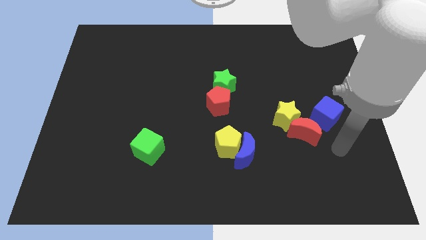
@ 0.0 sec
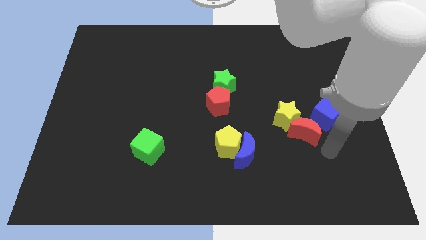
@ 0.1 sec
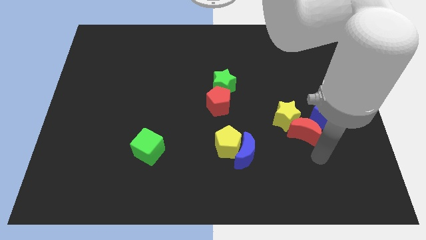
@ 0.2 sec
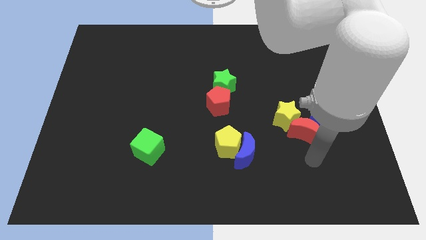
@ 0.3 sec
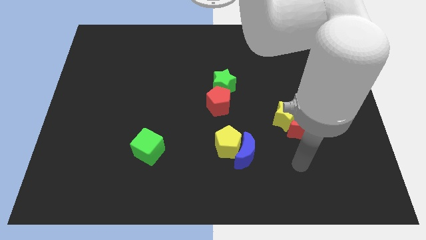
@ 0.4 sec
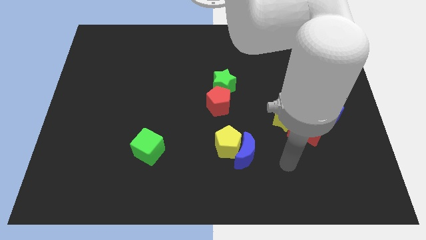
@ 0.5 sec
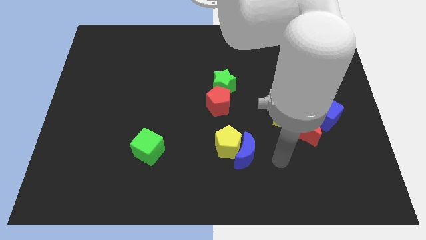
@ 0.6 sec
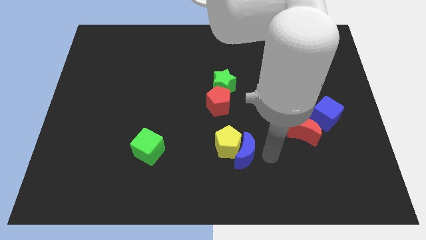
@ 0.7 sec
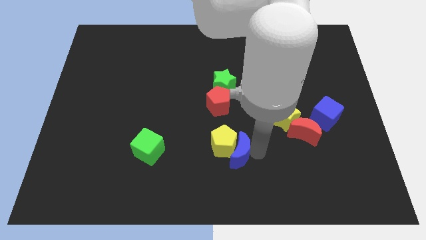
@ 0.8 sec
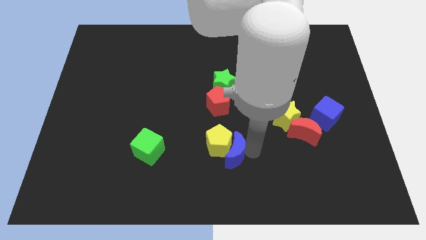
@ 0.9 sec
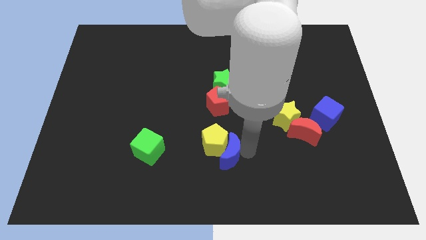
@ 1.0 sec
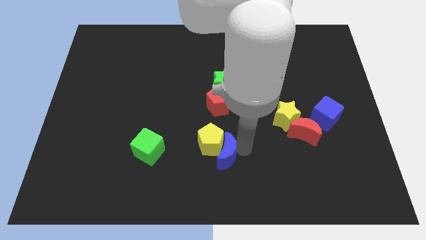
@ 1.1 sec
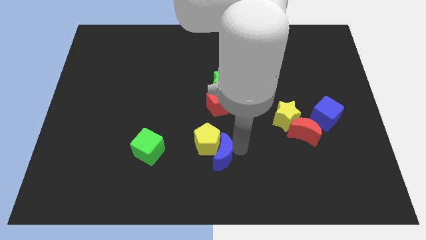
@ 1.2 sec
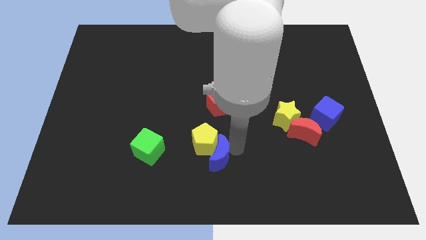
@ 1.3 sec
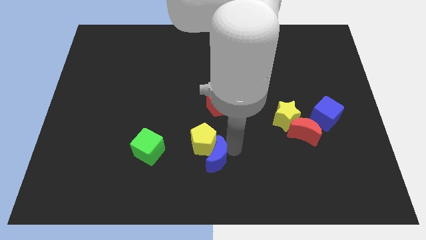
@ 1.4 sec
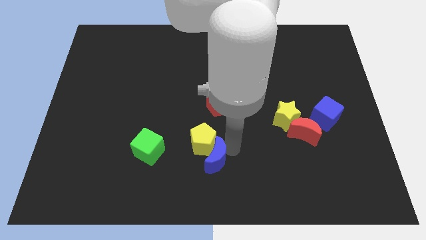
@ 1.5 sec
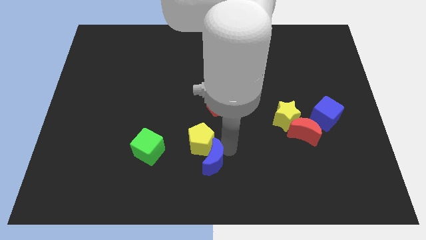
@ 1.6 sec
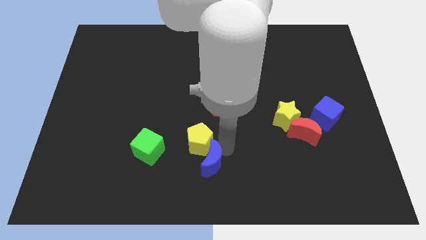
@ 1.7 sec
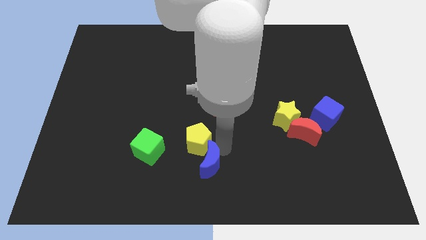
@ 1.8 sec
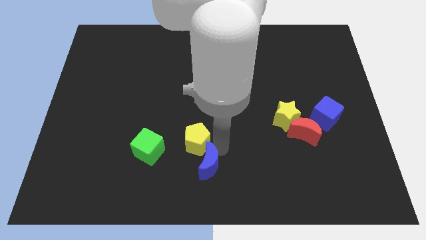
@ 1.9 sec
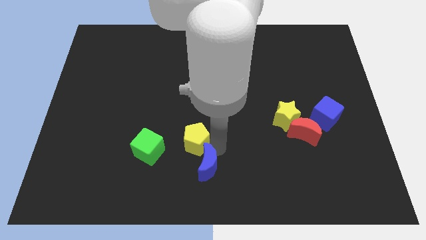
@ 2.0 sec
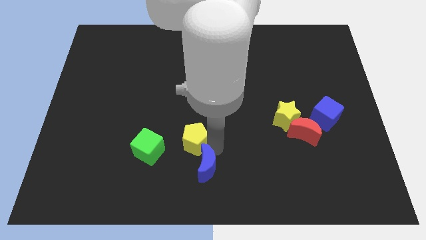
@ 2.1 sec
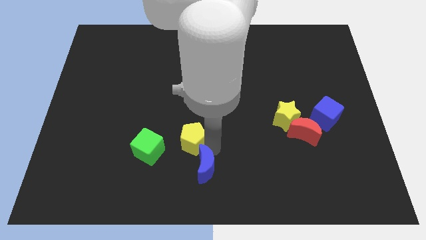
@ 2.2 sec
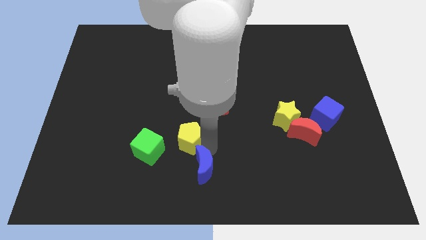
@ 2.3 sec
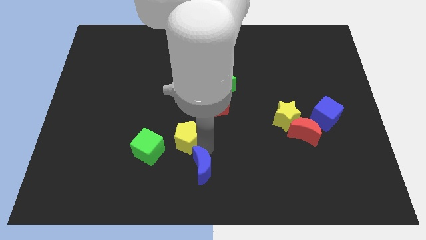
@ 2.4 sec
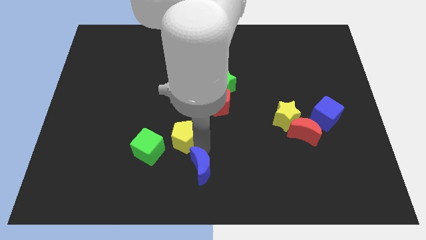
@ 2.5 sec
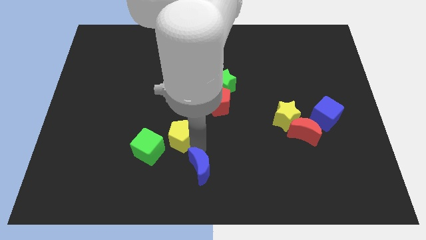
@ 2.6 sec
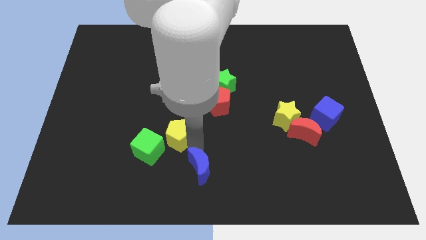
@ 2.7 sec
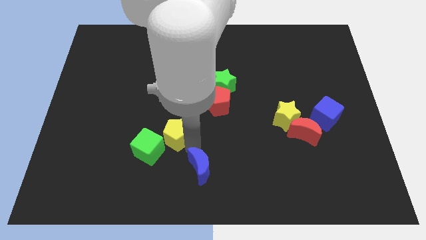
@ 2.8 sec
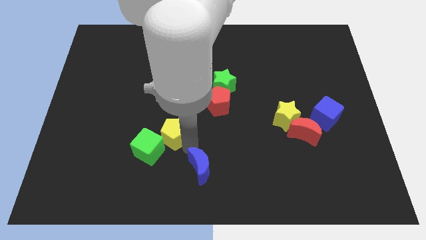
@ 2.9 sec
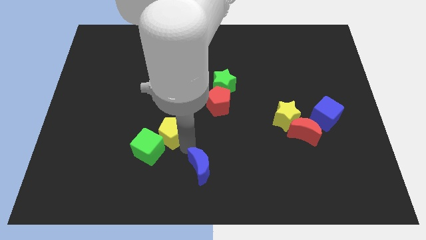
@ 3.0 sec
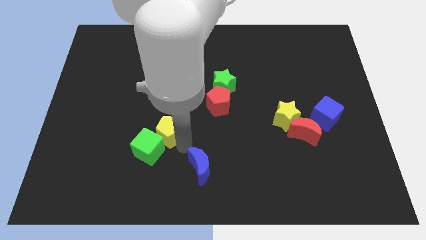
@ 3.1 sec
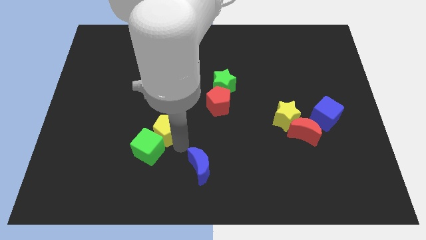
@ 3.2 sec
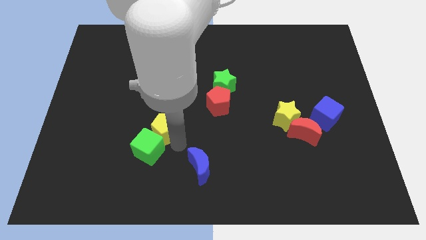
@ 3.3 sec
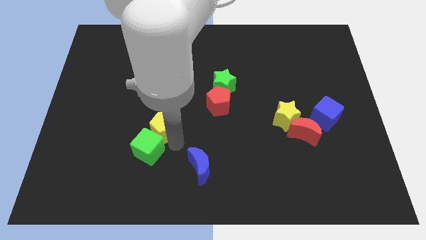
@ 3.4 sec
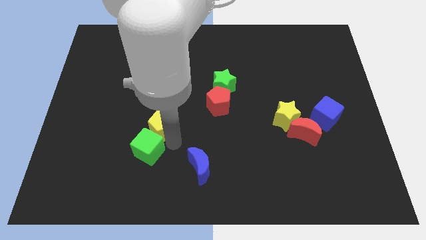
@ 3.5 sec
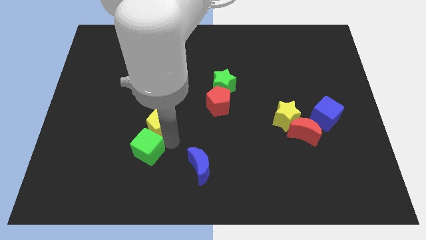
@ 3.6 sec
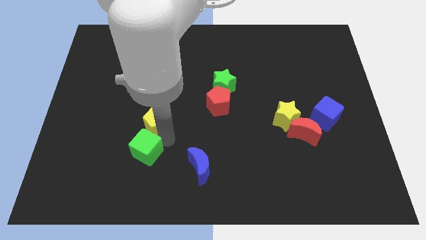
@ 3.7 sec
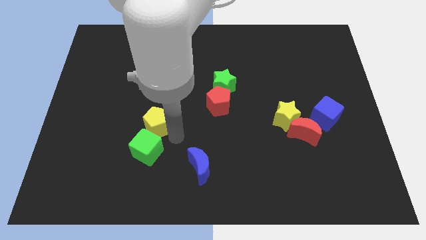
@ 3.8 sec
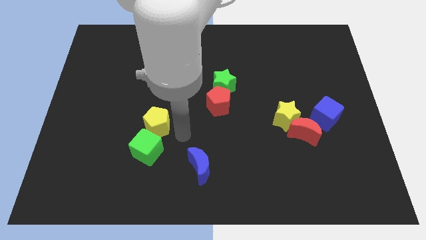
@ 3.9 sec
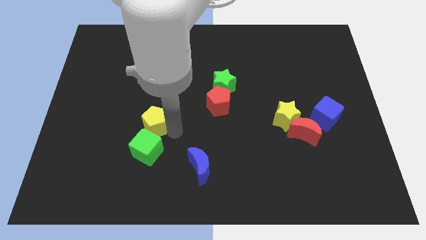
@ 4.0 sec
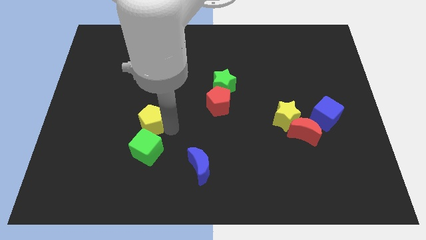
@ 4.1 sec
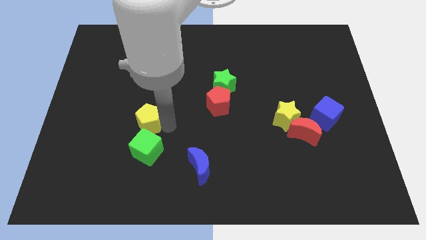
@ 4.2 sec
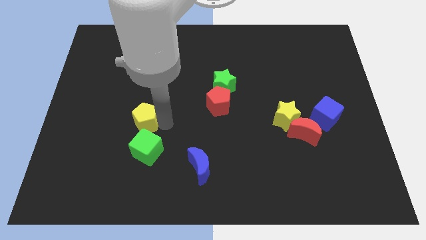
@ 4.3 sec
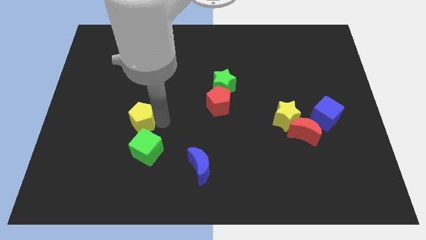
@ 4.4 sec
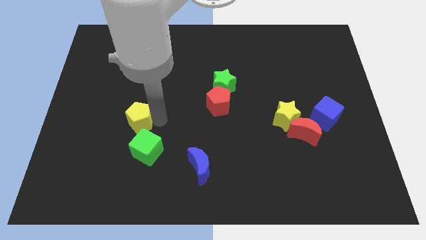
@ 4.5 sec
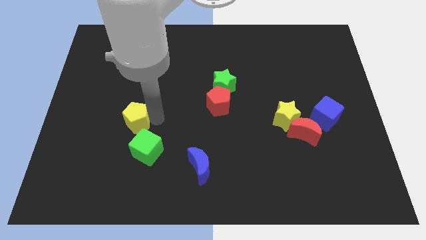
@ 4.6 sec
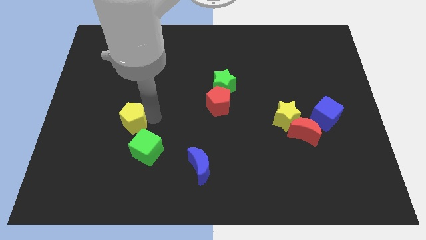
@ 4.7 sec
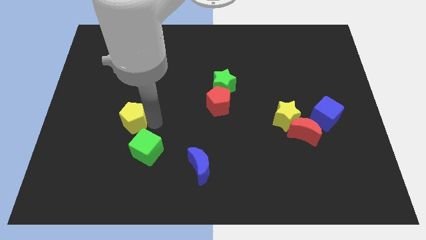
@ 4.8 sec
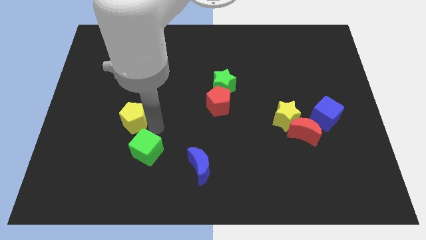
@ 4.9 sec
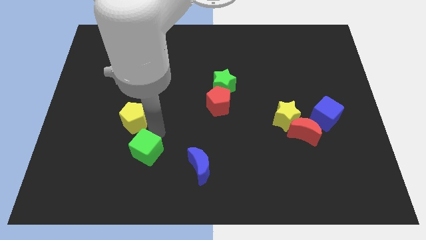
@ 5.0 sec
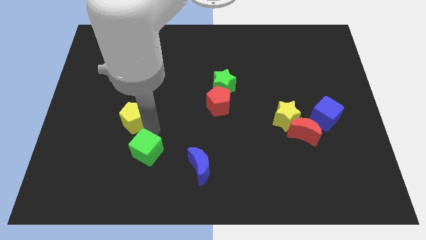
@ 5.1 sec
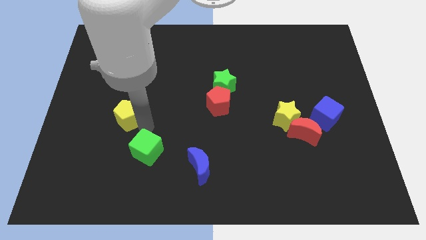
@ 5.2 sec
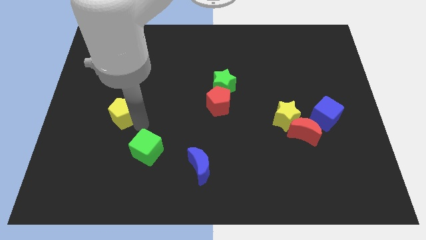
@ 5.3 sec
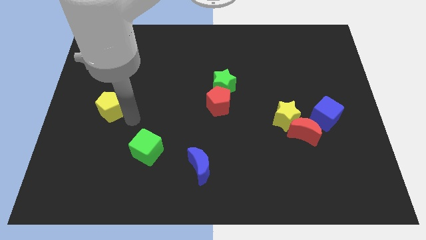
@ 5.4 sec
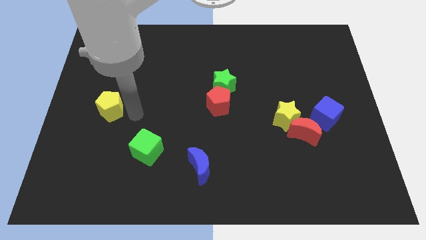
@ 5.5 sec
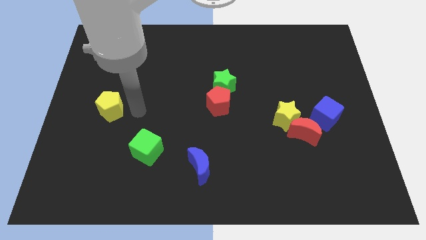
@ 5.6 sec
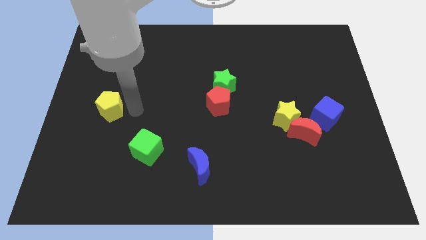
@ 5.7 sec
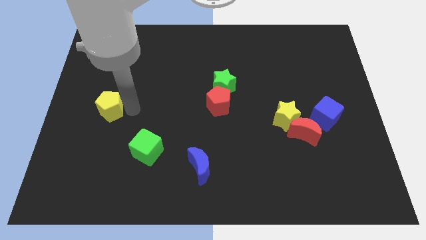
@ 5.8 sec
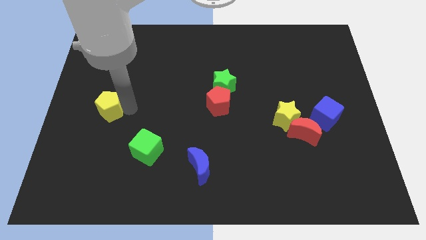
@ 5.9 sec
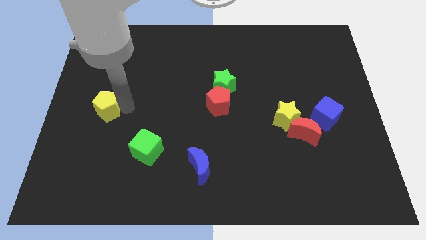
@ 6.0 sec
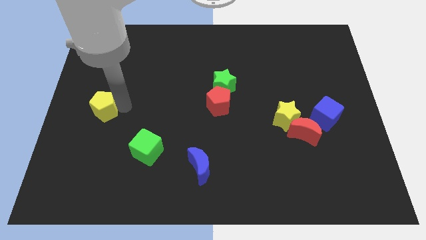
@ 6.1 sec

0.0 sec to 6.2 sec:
put the yellow pentagon to the left side

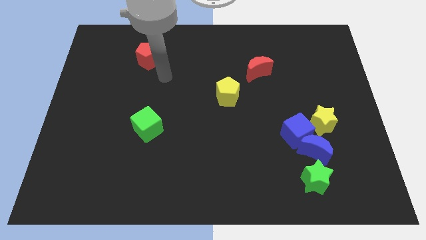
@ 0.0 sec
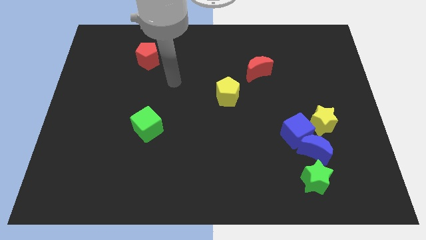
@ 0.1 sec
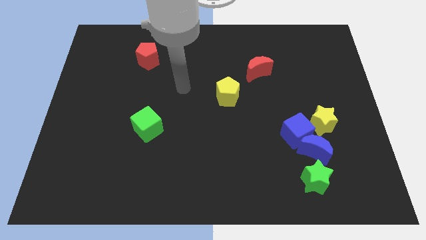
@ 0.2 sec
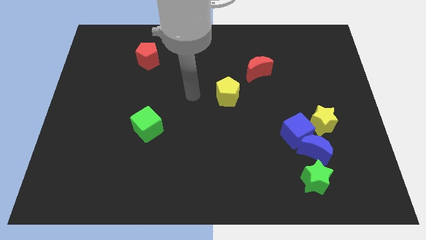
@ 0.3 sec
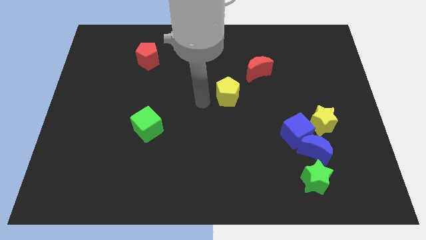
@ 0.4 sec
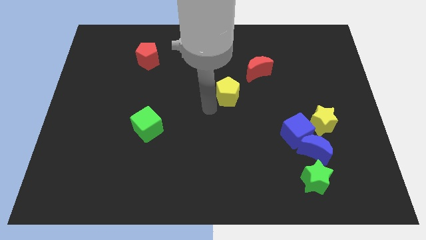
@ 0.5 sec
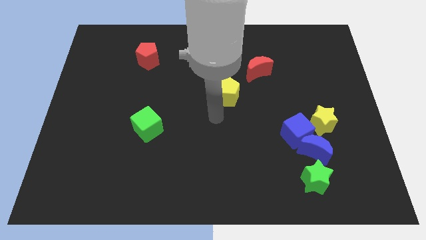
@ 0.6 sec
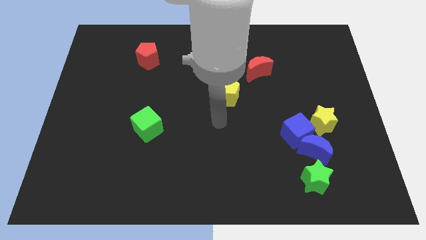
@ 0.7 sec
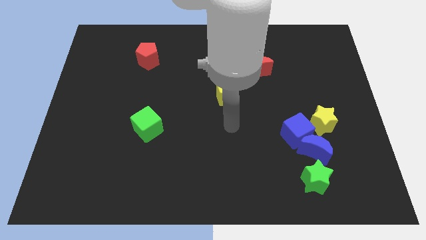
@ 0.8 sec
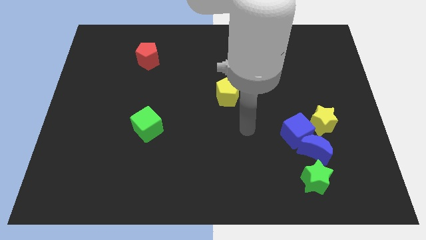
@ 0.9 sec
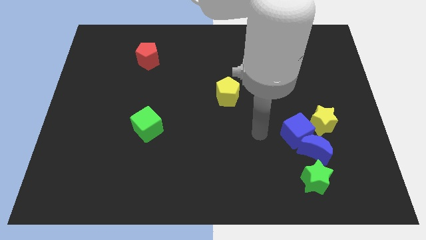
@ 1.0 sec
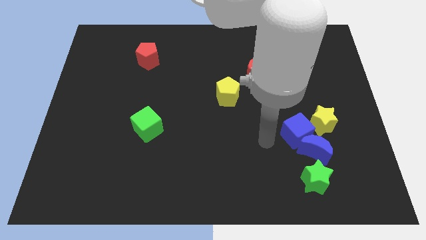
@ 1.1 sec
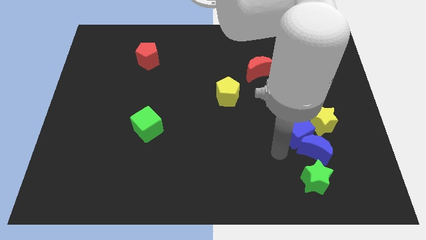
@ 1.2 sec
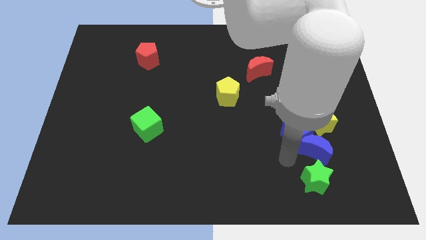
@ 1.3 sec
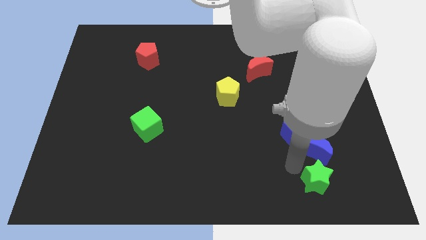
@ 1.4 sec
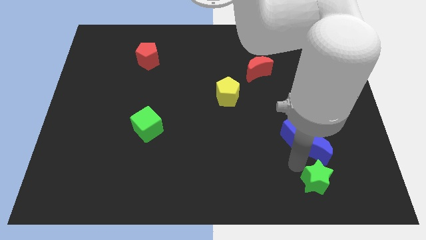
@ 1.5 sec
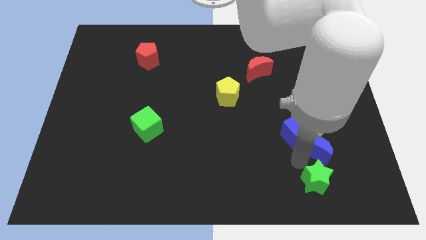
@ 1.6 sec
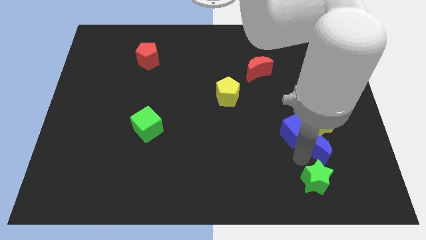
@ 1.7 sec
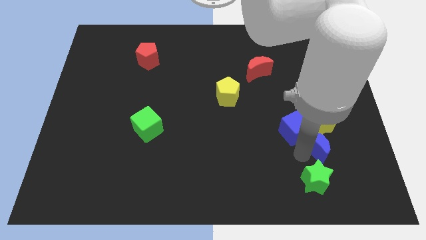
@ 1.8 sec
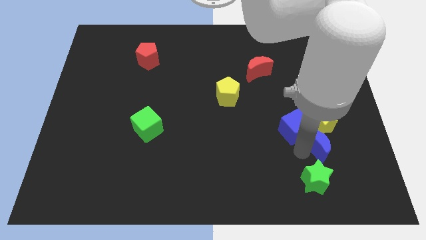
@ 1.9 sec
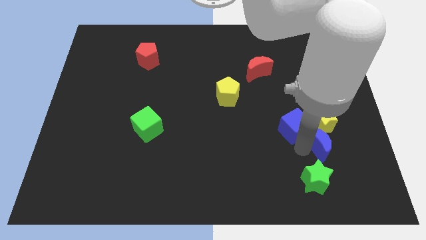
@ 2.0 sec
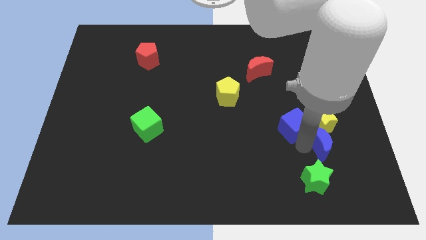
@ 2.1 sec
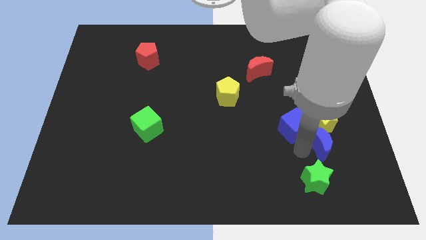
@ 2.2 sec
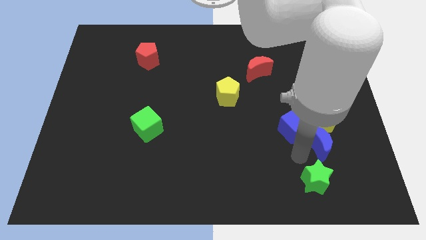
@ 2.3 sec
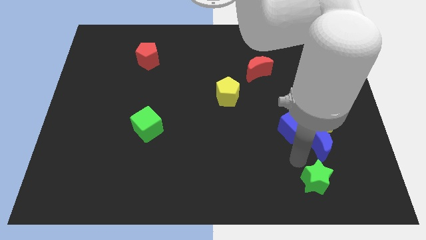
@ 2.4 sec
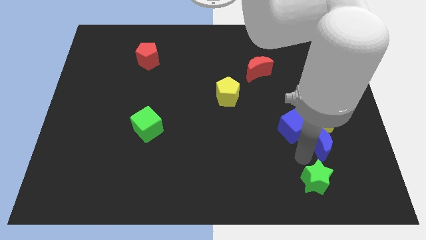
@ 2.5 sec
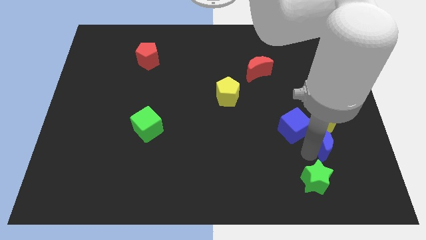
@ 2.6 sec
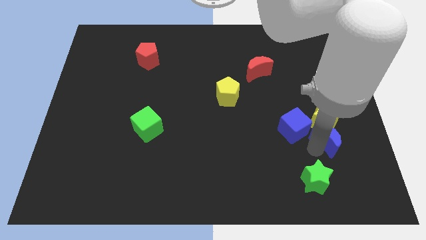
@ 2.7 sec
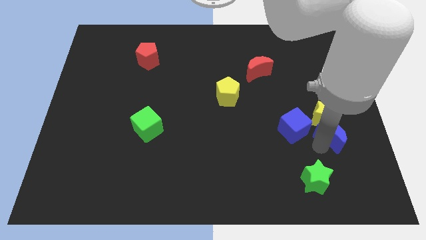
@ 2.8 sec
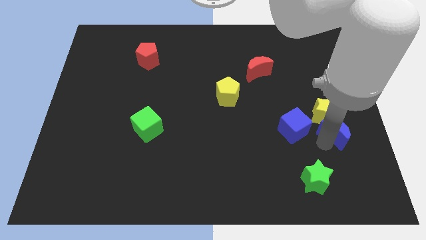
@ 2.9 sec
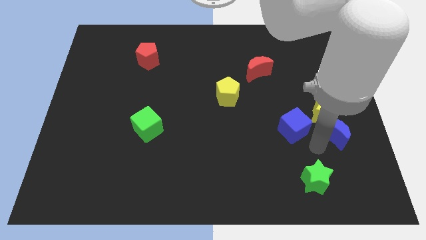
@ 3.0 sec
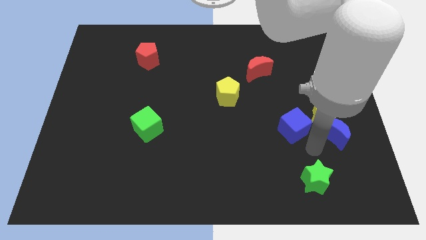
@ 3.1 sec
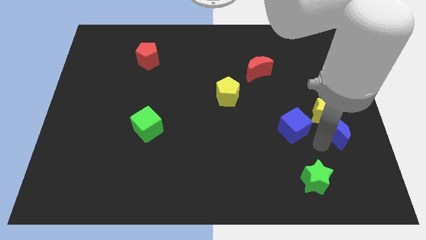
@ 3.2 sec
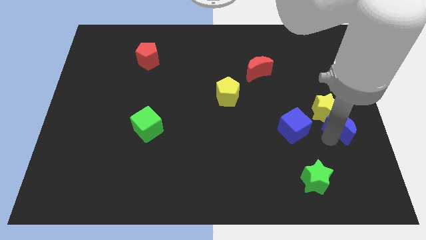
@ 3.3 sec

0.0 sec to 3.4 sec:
put the blue moon to the right side
